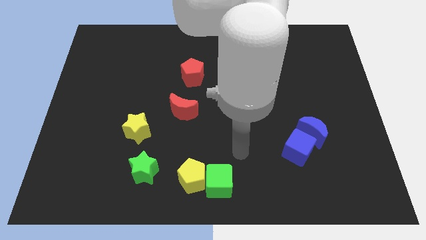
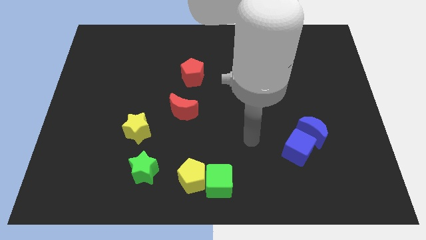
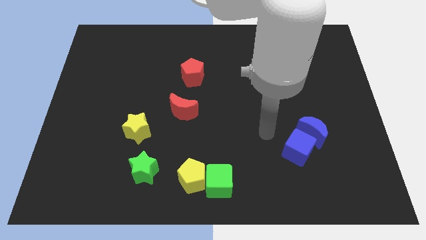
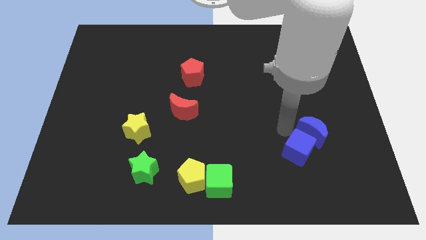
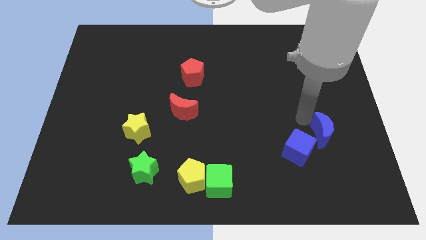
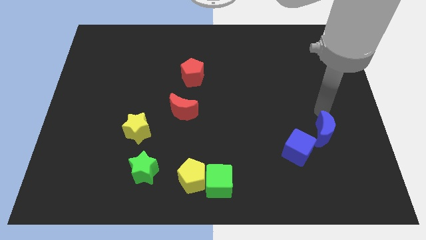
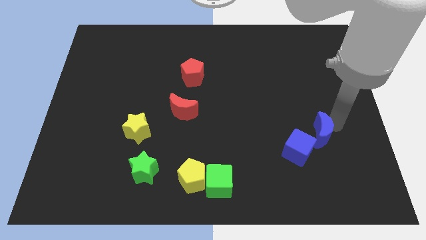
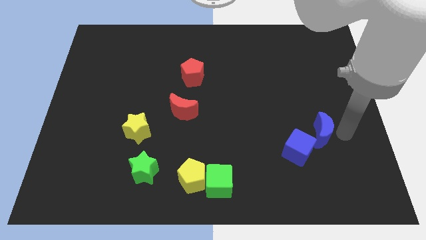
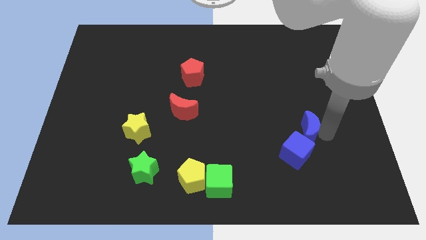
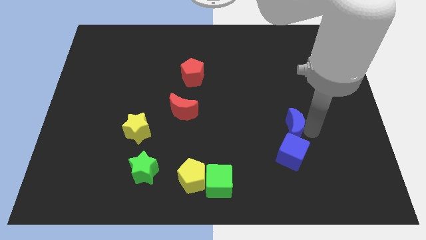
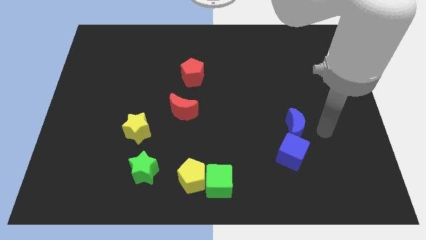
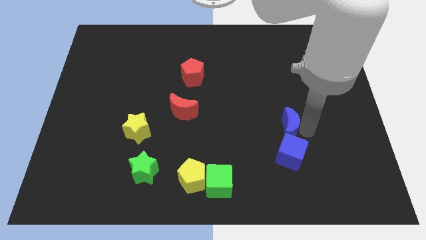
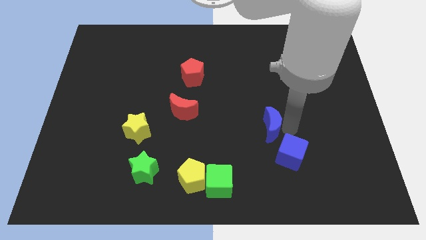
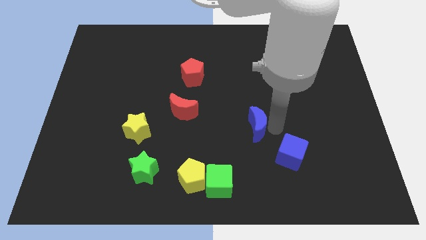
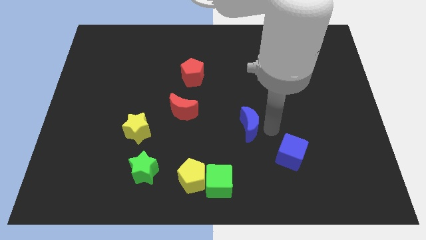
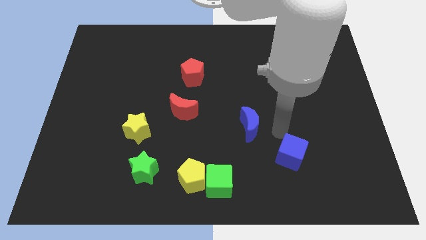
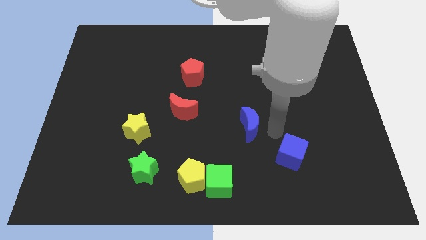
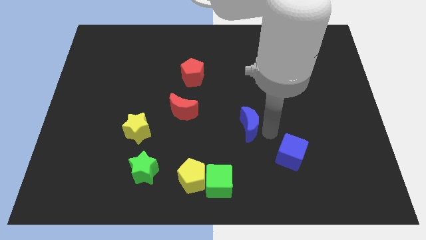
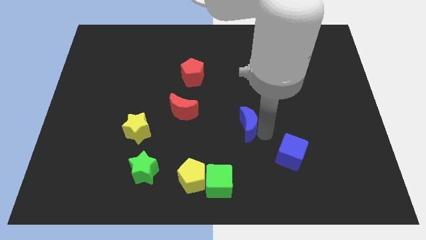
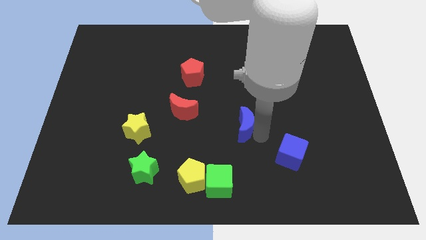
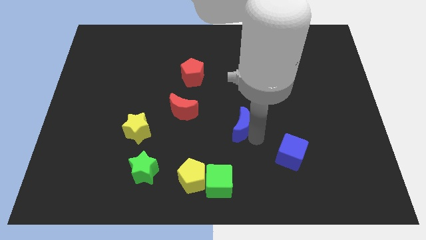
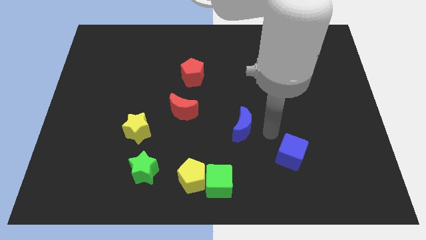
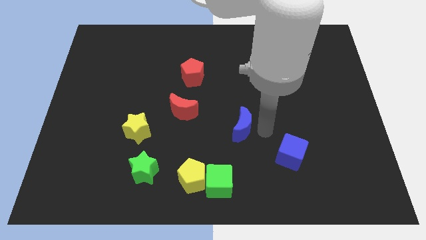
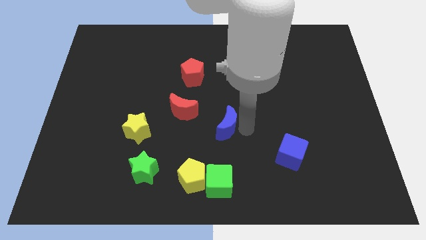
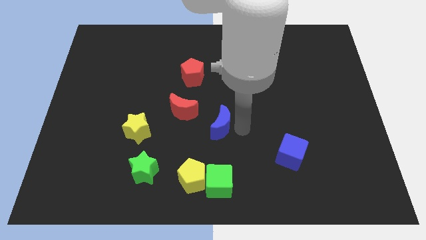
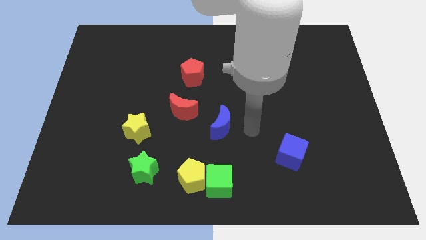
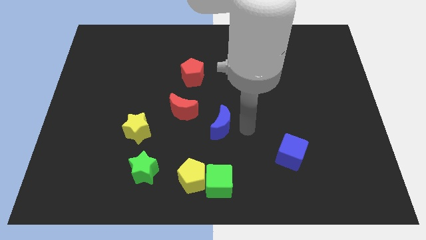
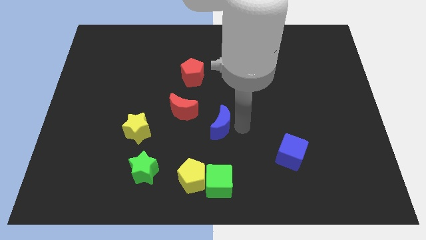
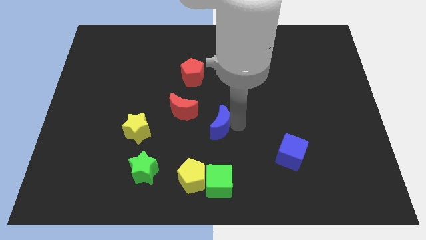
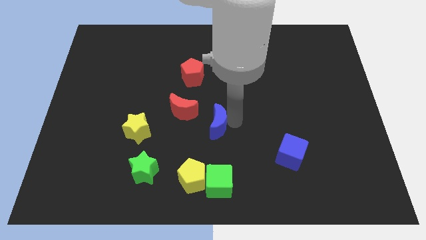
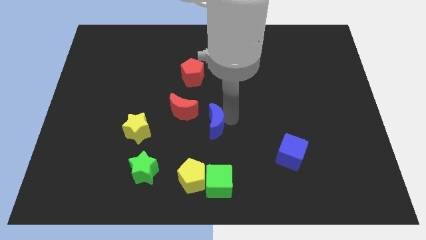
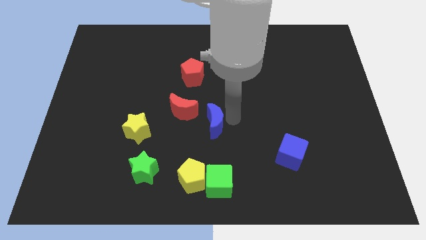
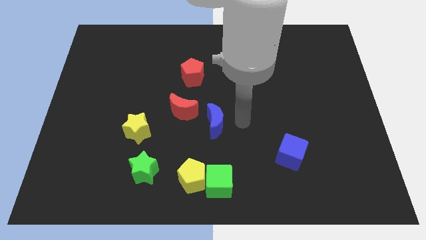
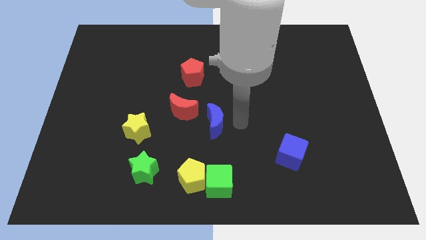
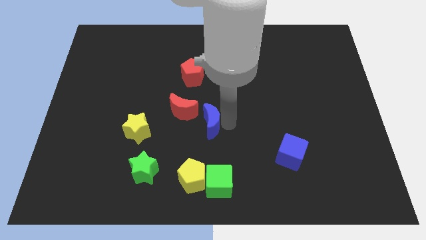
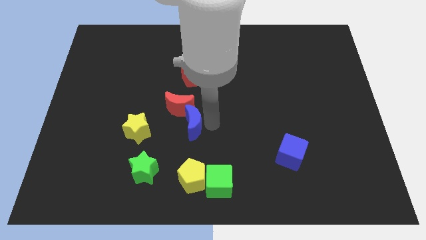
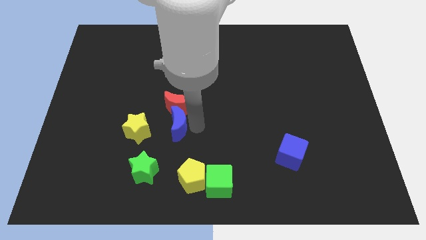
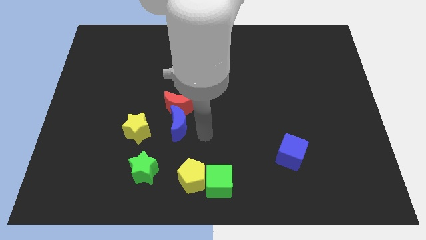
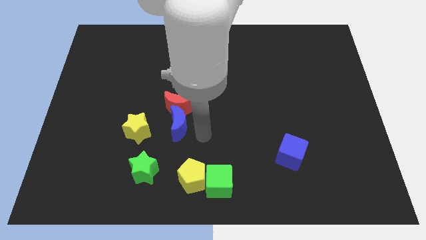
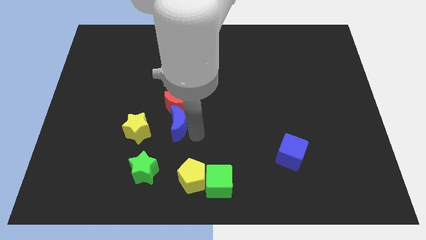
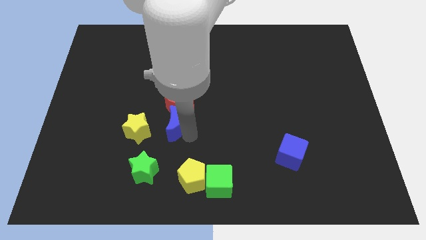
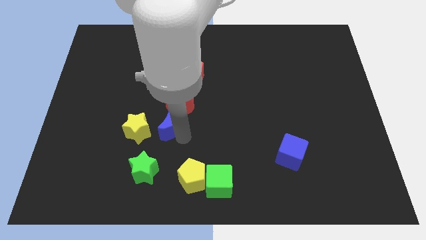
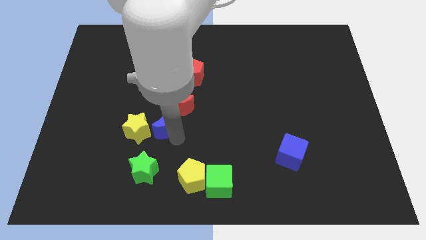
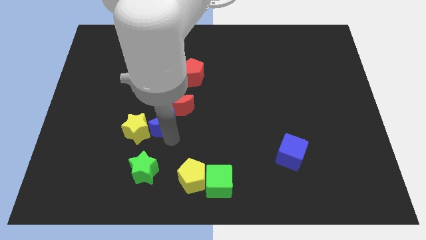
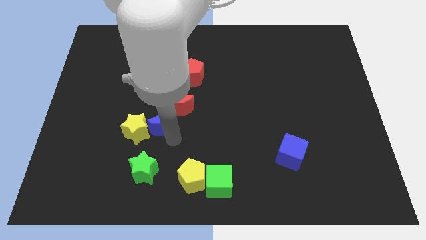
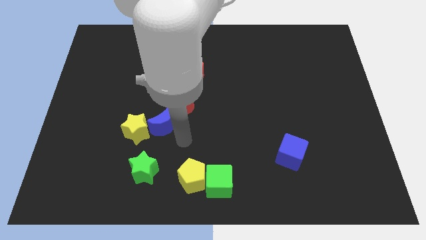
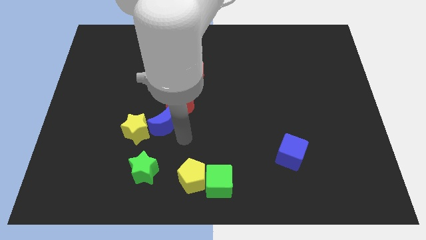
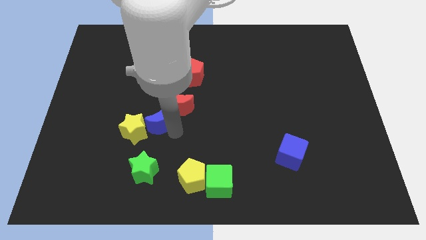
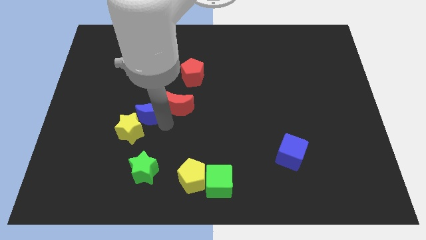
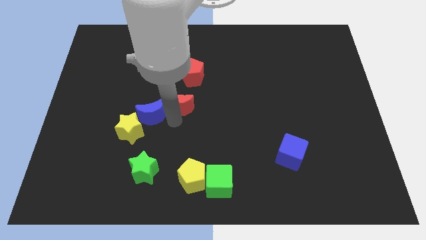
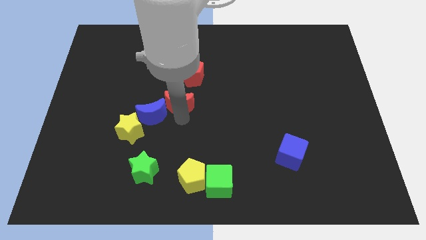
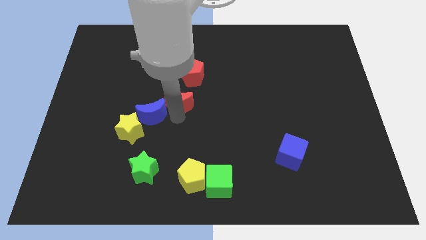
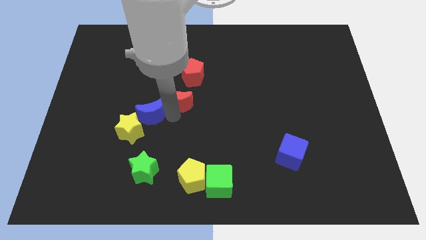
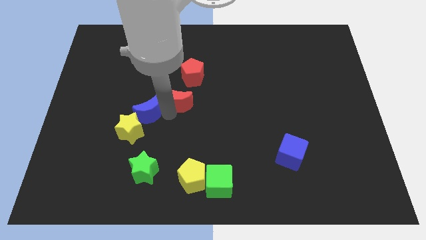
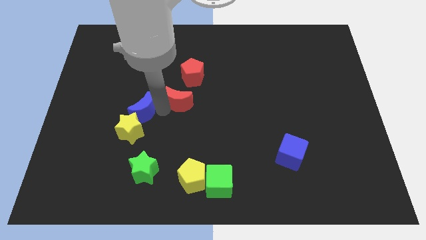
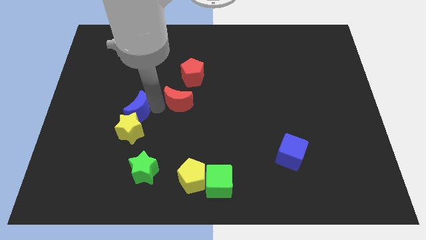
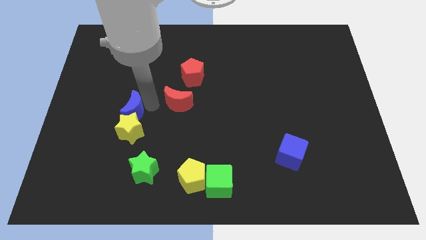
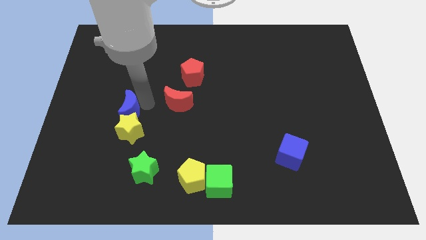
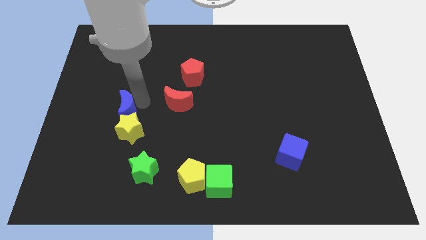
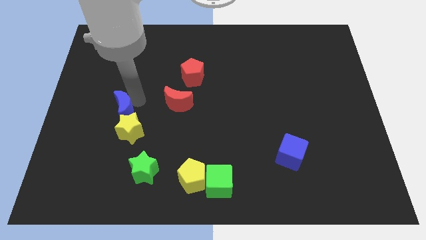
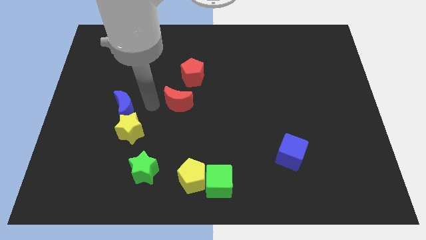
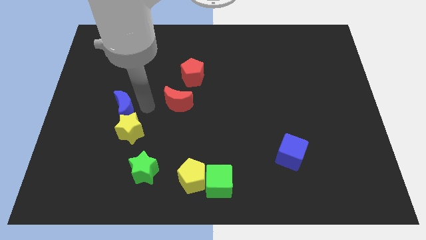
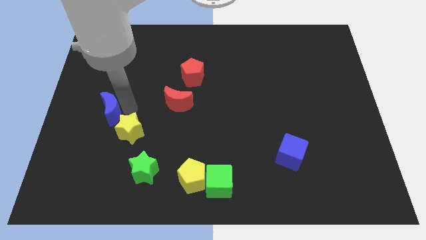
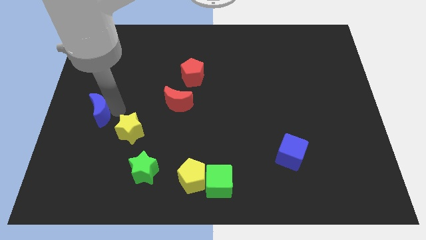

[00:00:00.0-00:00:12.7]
put the blue moon to the left side of the board

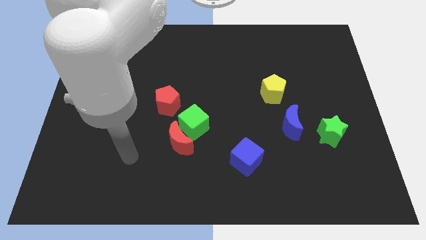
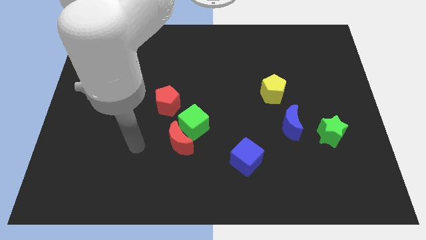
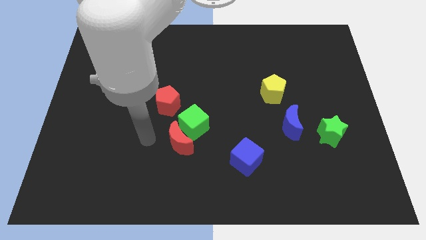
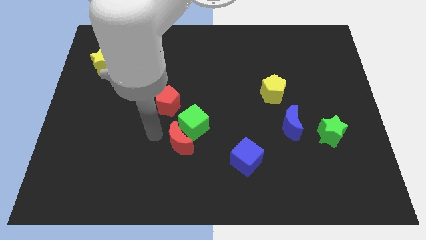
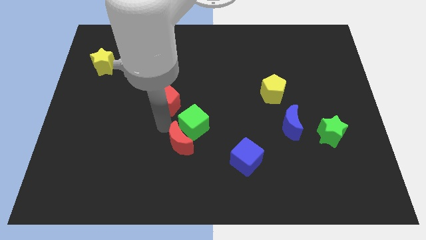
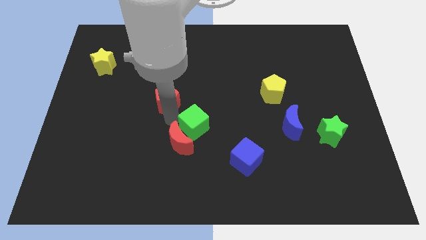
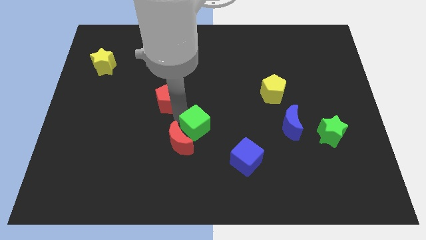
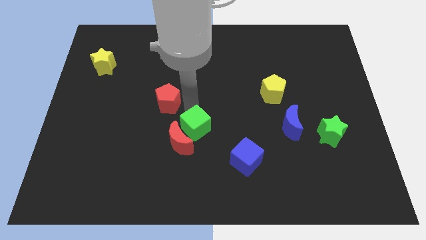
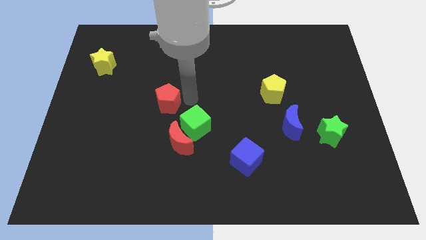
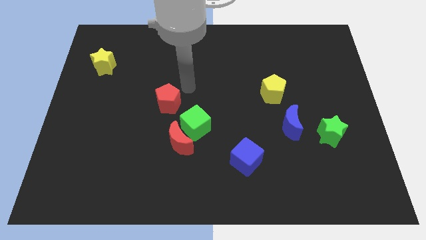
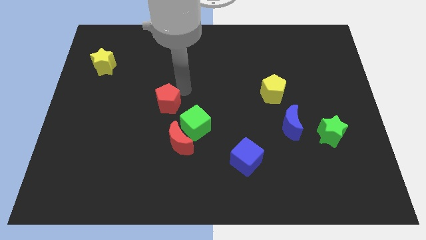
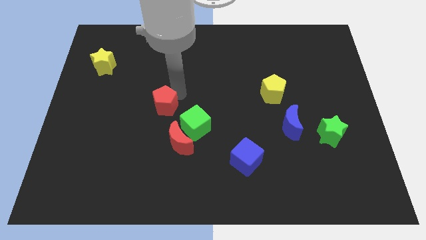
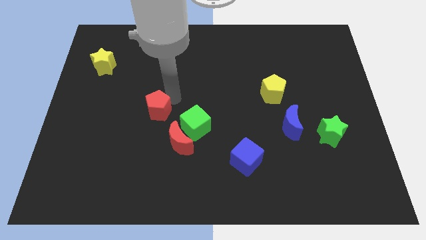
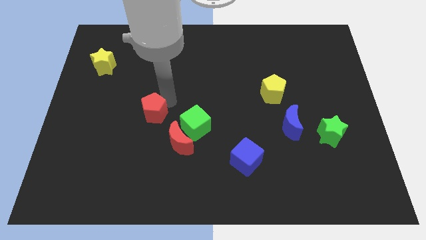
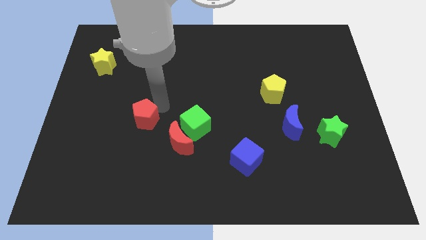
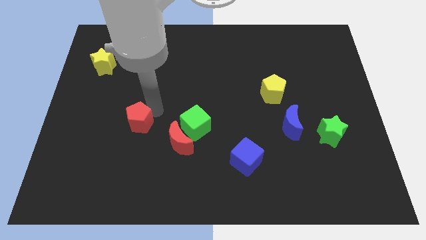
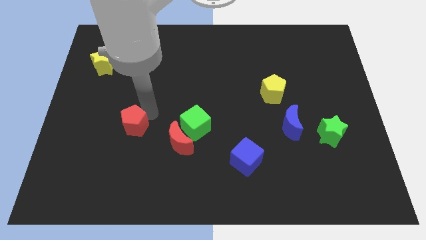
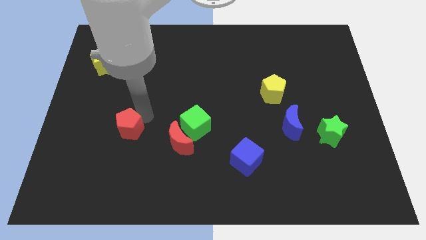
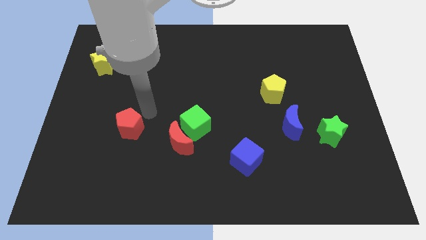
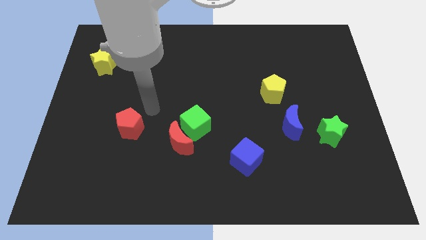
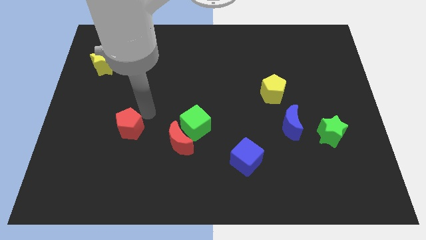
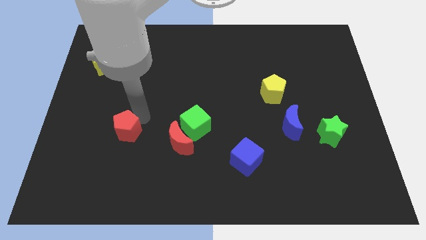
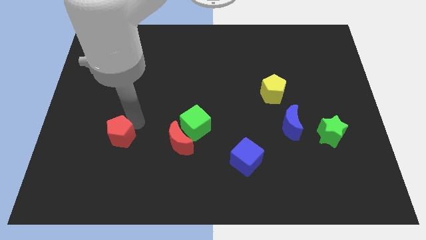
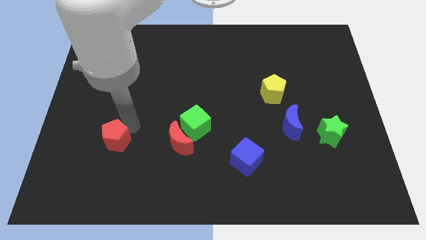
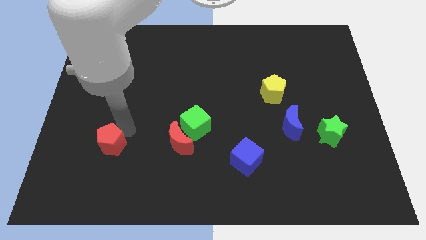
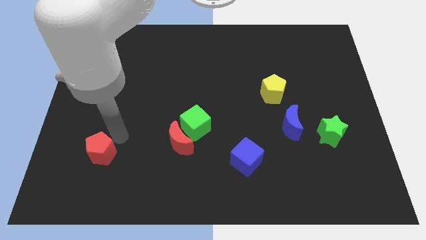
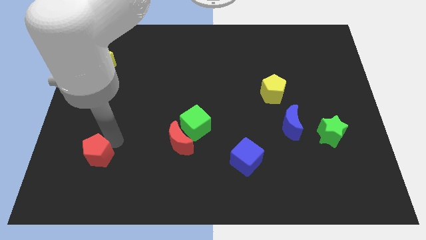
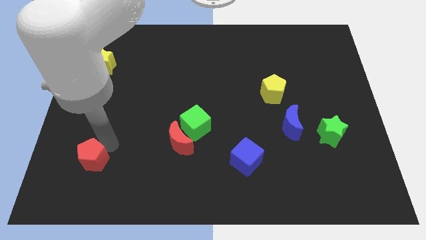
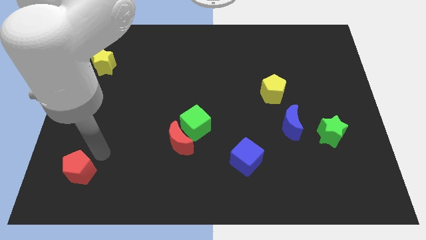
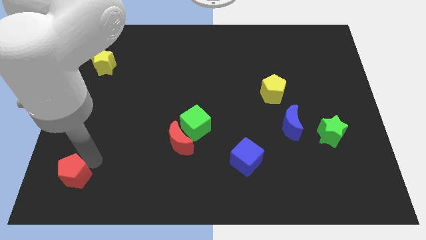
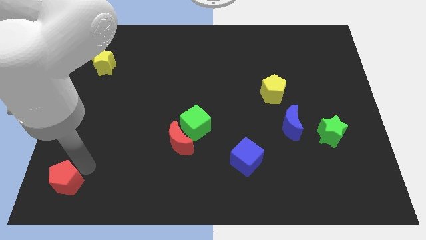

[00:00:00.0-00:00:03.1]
move the red pentagon to the bottom left corner
